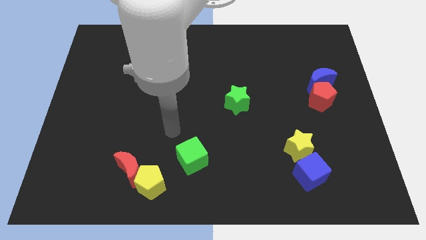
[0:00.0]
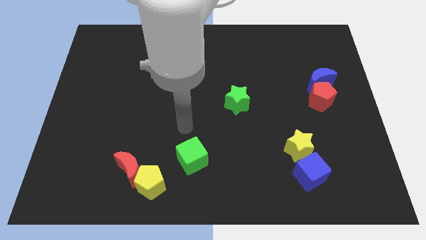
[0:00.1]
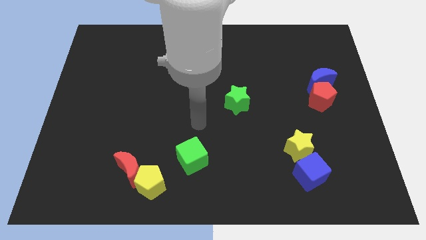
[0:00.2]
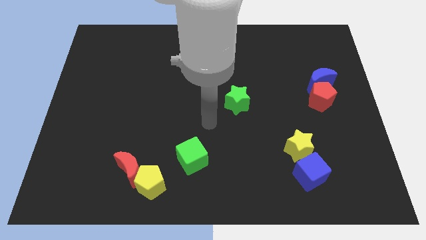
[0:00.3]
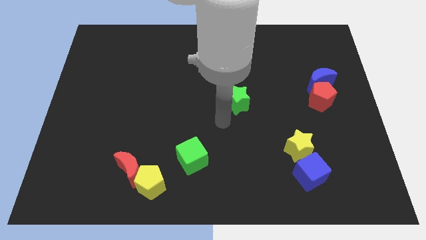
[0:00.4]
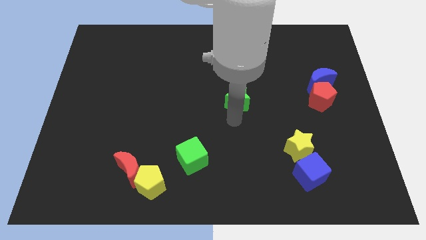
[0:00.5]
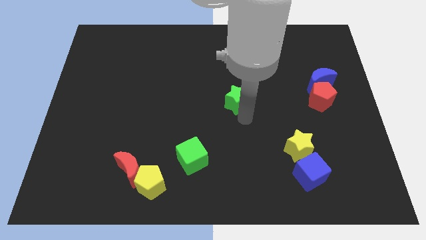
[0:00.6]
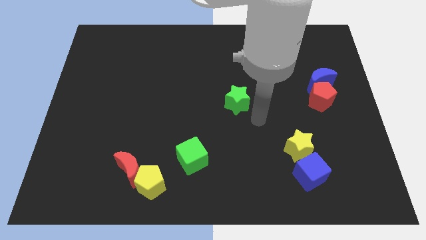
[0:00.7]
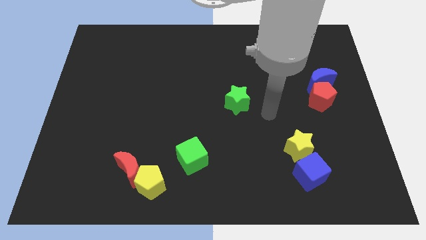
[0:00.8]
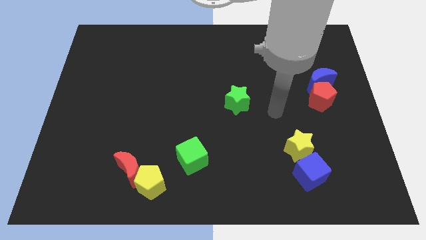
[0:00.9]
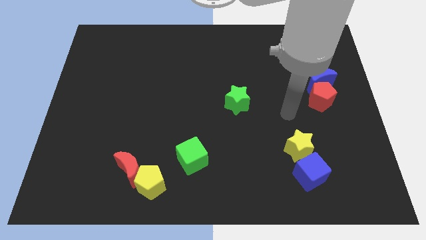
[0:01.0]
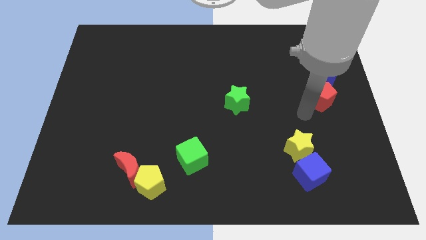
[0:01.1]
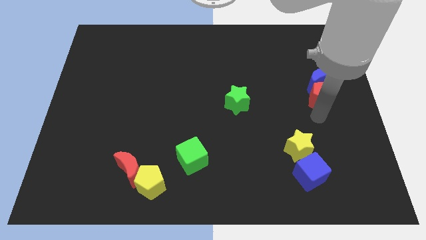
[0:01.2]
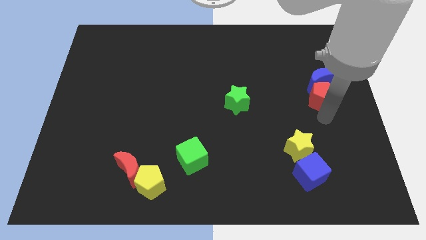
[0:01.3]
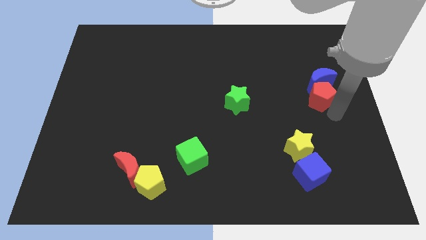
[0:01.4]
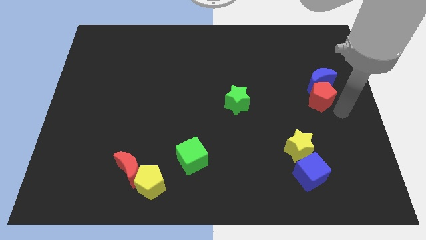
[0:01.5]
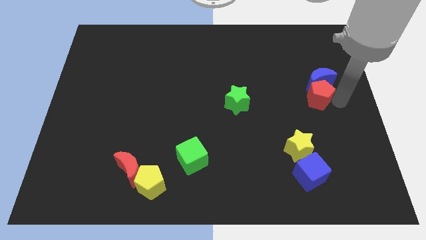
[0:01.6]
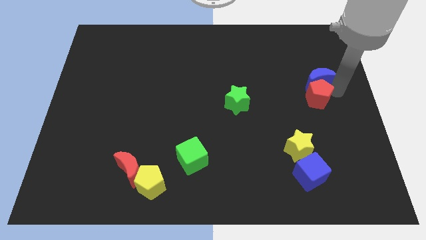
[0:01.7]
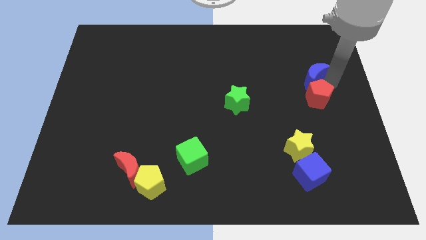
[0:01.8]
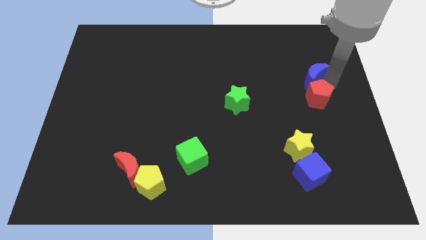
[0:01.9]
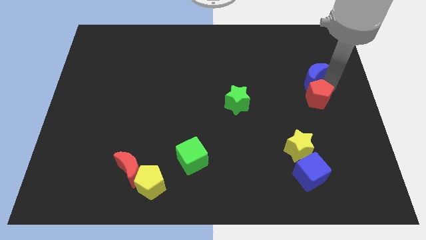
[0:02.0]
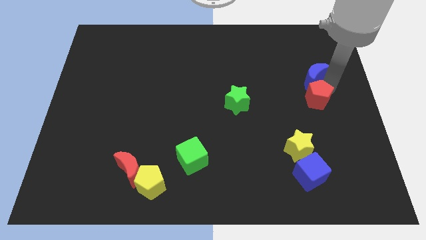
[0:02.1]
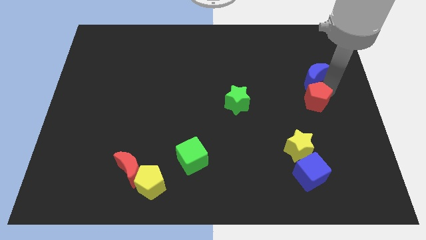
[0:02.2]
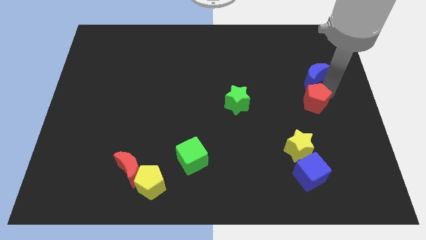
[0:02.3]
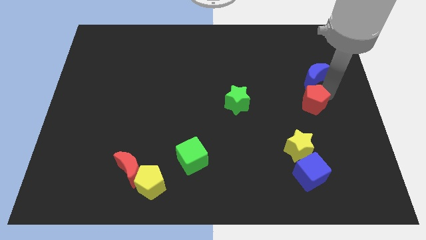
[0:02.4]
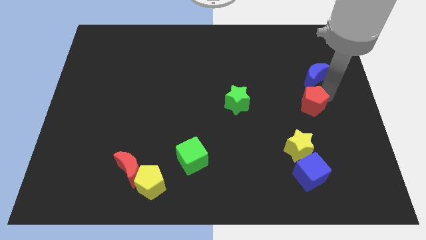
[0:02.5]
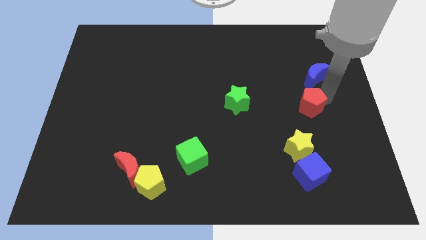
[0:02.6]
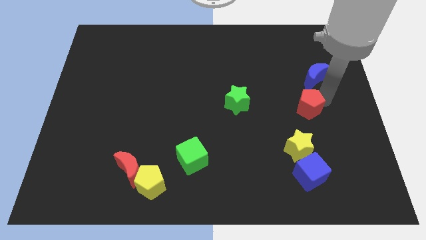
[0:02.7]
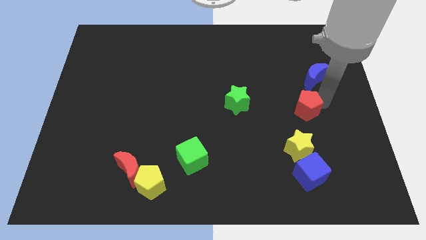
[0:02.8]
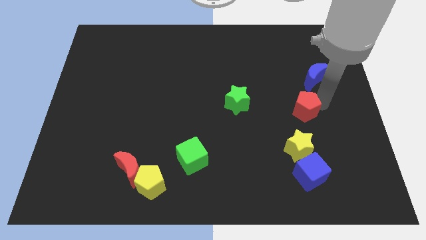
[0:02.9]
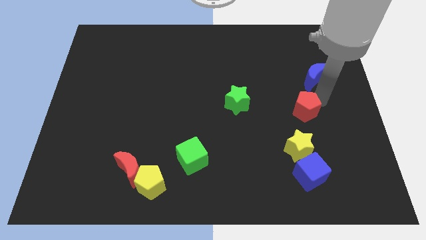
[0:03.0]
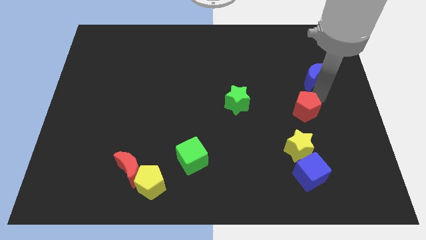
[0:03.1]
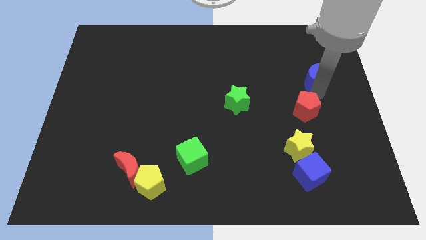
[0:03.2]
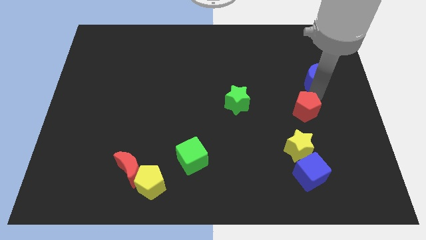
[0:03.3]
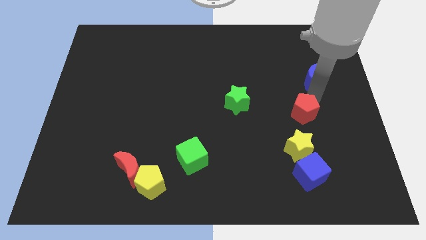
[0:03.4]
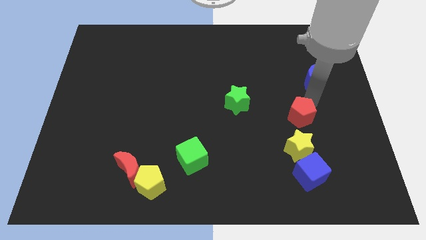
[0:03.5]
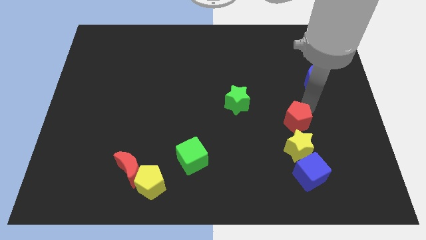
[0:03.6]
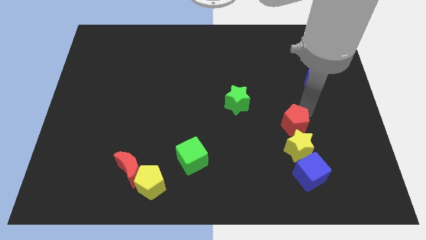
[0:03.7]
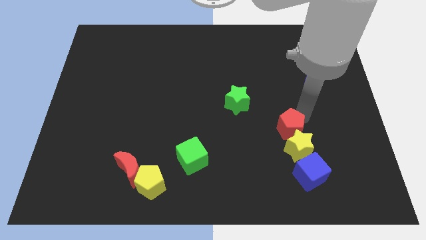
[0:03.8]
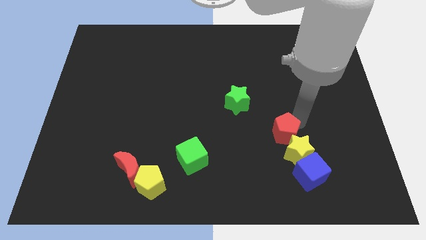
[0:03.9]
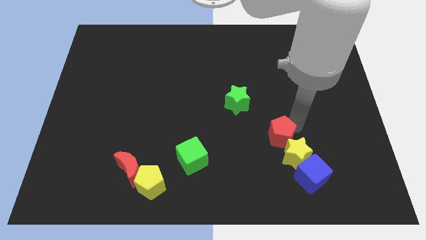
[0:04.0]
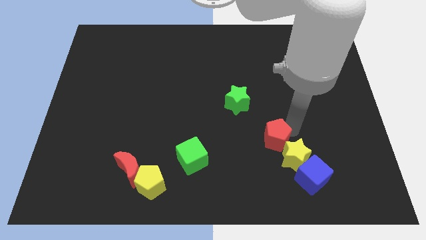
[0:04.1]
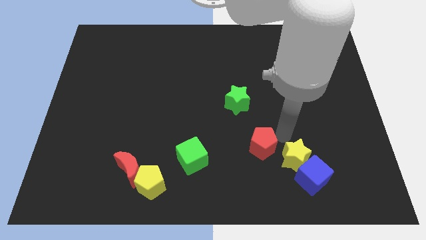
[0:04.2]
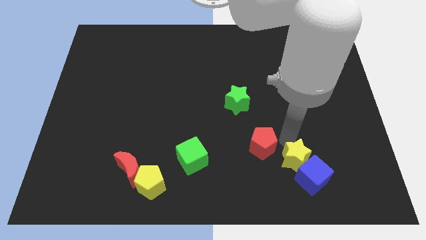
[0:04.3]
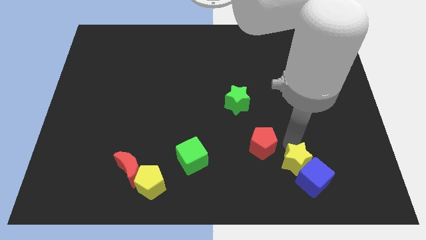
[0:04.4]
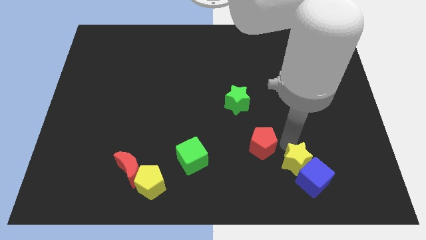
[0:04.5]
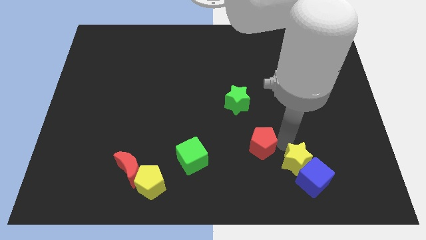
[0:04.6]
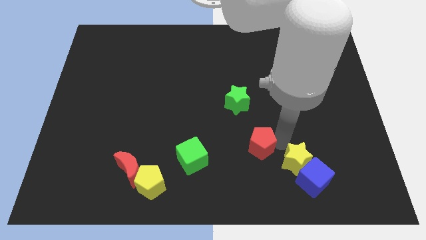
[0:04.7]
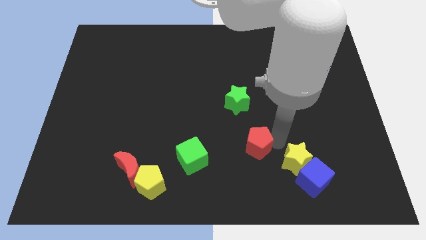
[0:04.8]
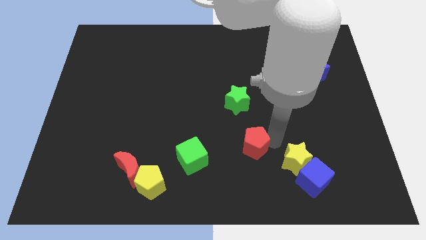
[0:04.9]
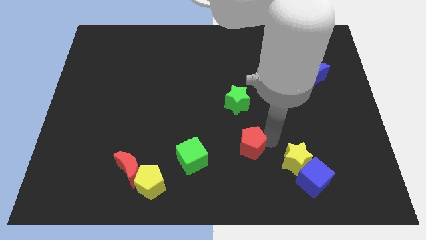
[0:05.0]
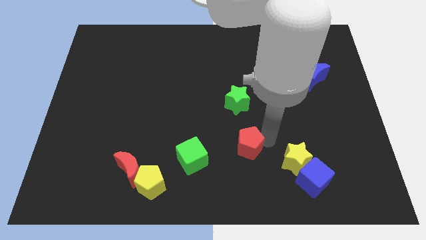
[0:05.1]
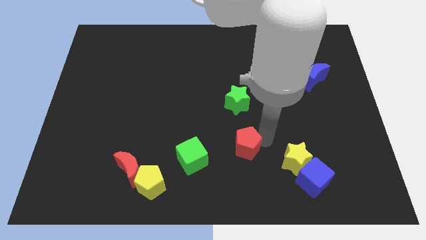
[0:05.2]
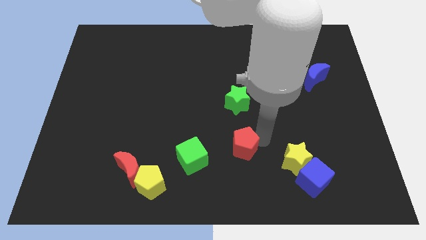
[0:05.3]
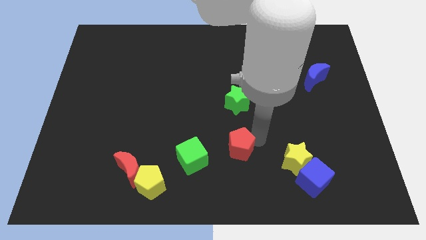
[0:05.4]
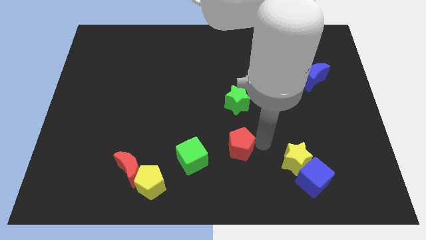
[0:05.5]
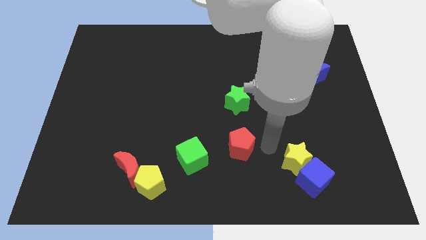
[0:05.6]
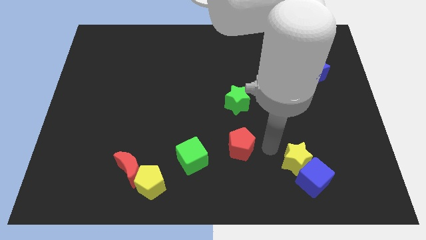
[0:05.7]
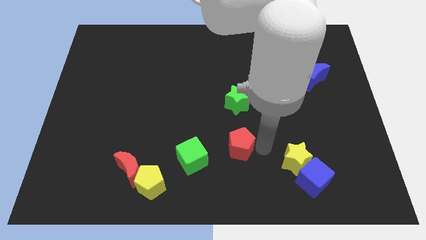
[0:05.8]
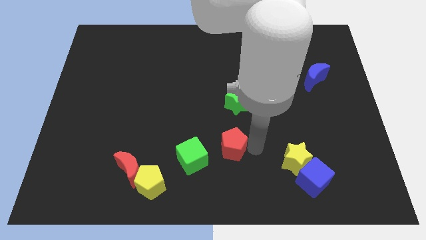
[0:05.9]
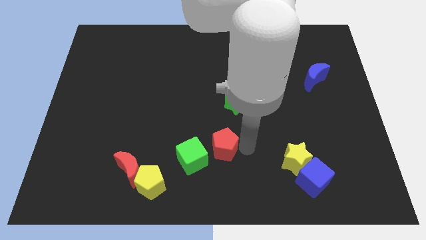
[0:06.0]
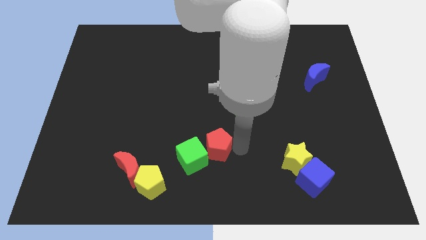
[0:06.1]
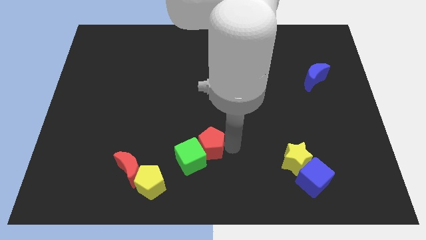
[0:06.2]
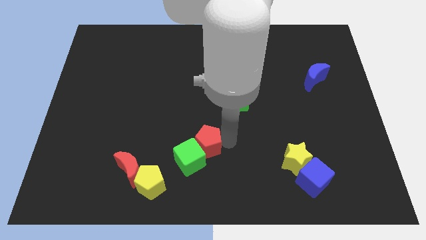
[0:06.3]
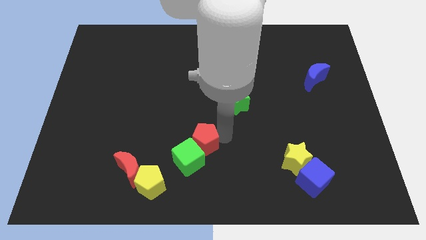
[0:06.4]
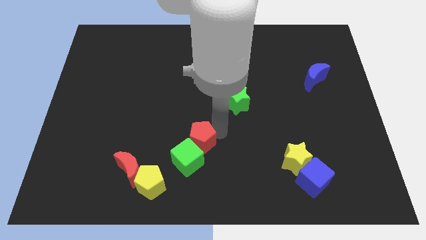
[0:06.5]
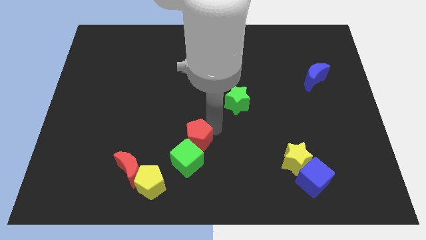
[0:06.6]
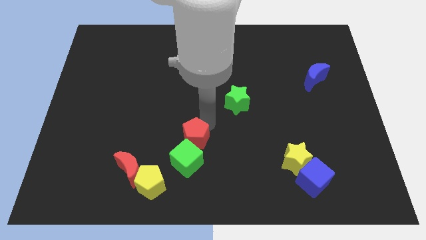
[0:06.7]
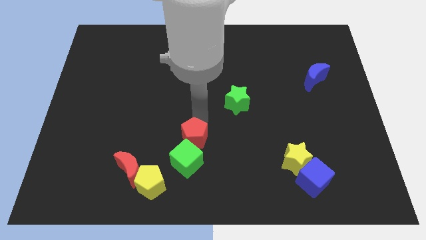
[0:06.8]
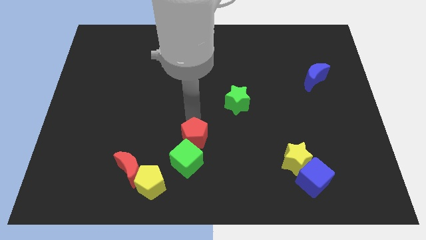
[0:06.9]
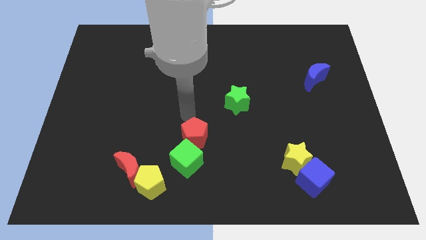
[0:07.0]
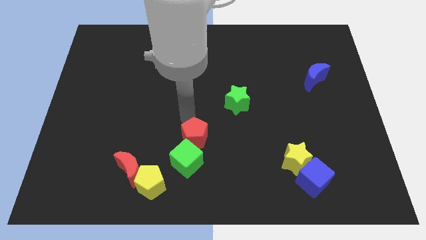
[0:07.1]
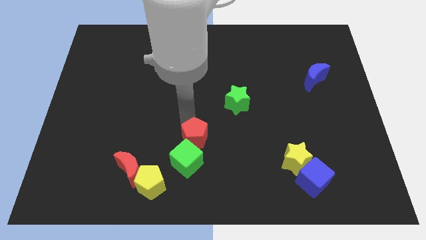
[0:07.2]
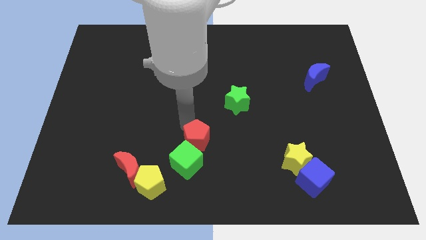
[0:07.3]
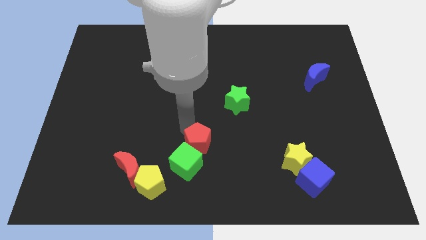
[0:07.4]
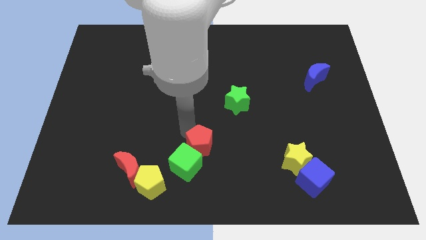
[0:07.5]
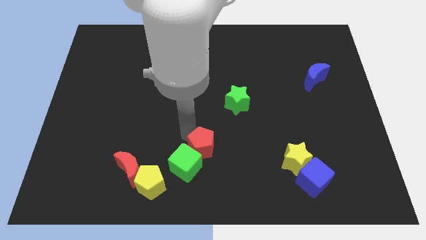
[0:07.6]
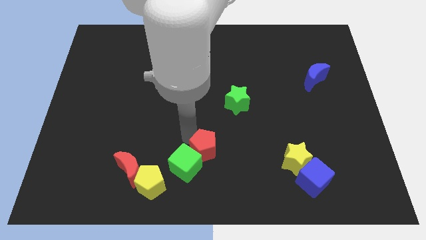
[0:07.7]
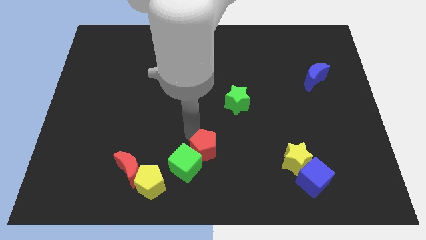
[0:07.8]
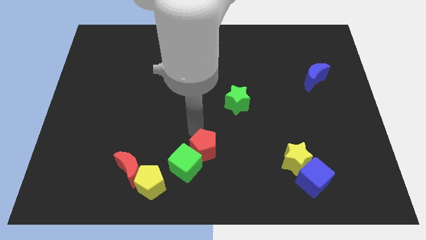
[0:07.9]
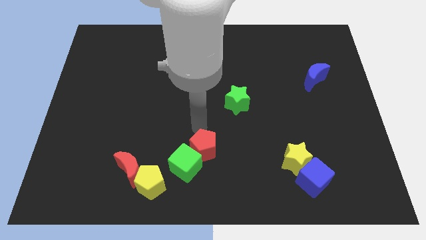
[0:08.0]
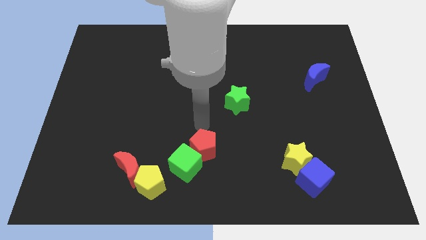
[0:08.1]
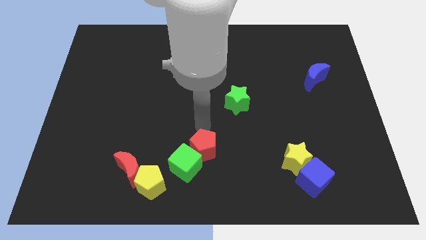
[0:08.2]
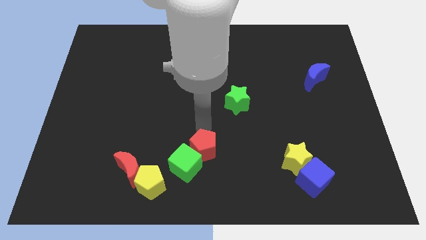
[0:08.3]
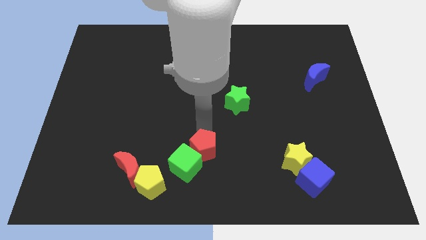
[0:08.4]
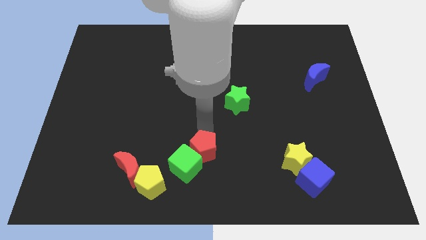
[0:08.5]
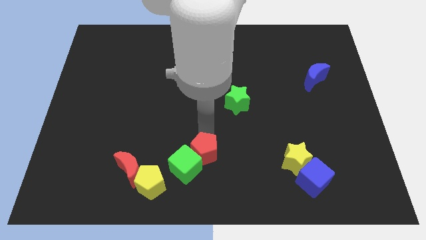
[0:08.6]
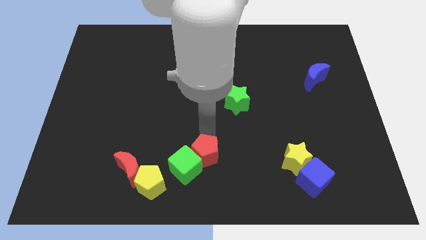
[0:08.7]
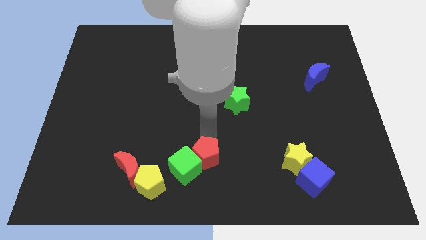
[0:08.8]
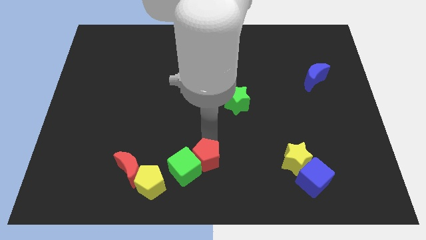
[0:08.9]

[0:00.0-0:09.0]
move the red pentagon just right of the red moon
